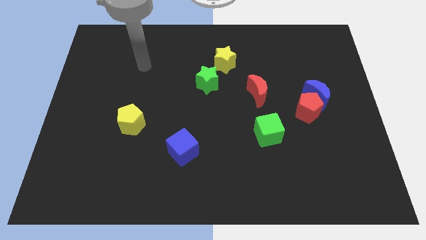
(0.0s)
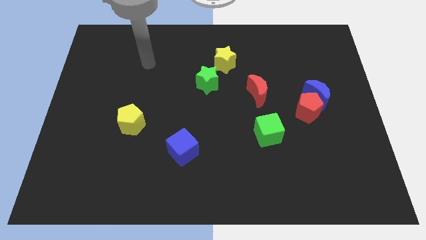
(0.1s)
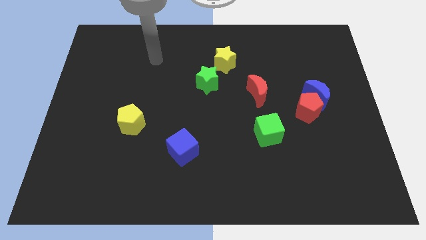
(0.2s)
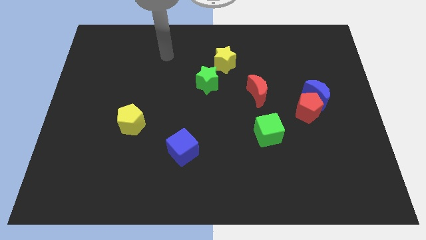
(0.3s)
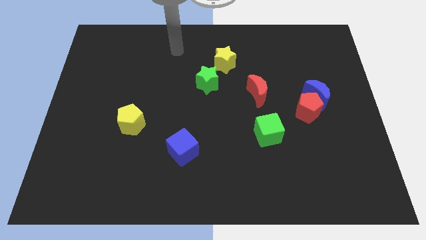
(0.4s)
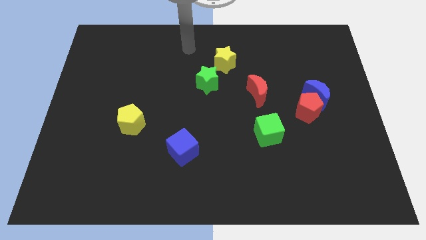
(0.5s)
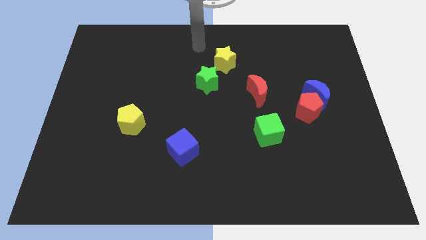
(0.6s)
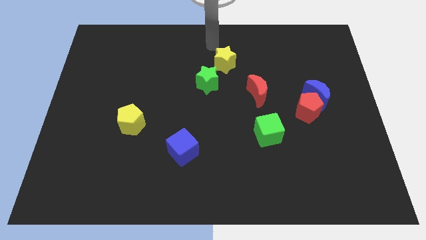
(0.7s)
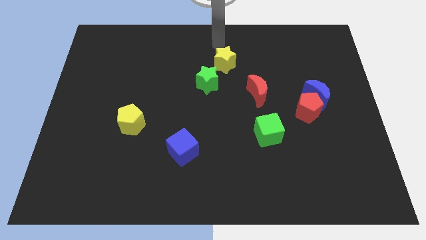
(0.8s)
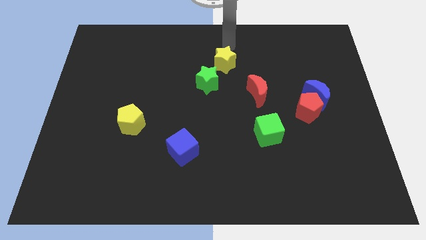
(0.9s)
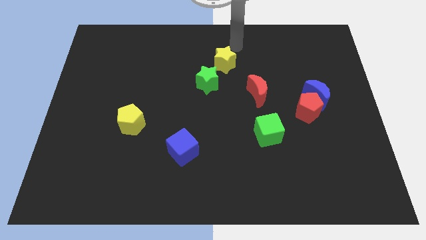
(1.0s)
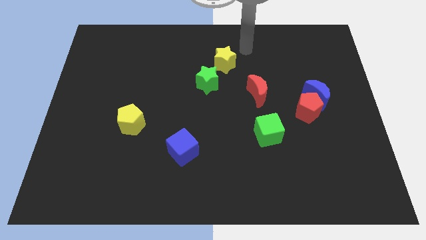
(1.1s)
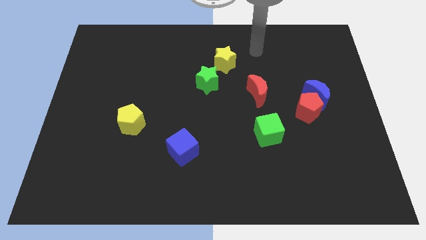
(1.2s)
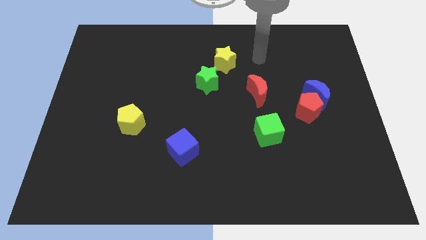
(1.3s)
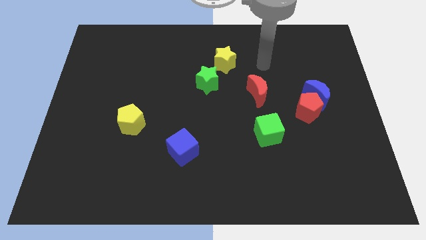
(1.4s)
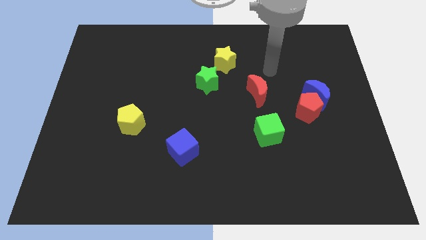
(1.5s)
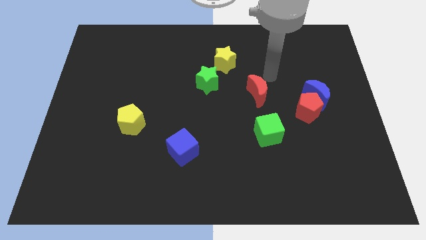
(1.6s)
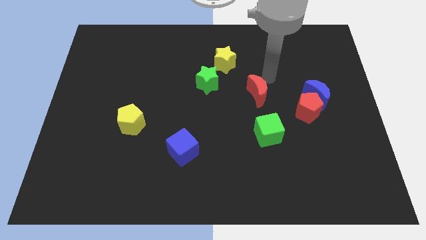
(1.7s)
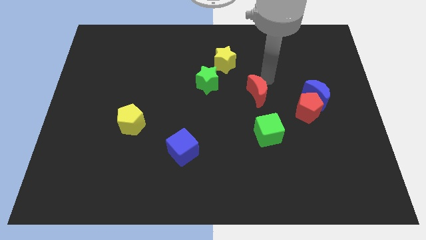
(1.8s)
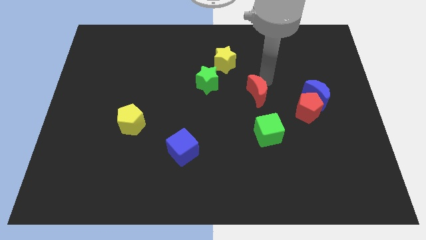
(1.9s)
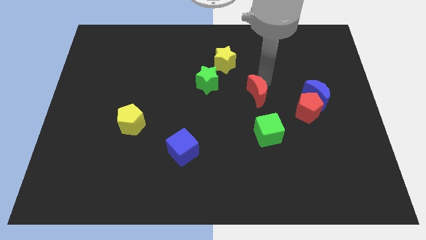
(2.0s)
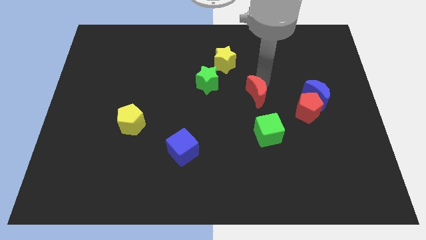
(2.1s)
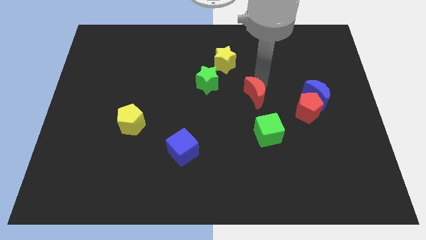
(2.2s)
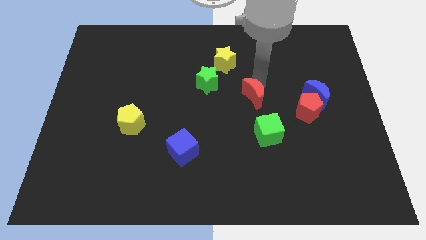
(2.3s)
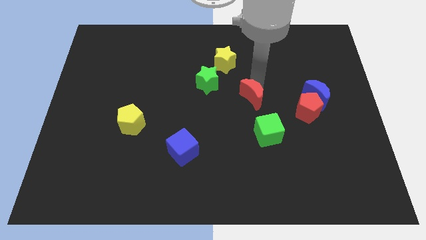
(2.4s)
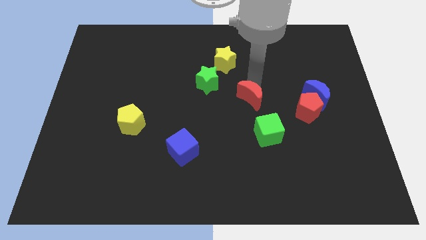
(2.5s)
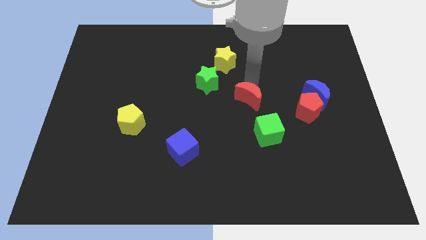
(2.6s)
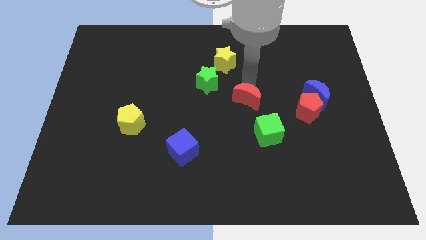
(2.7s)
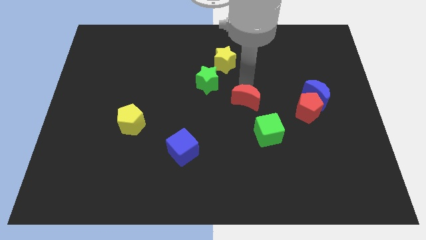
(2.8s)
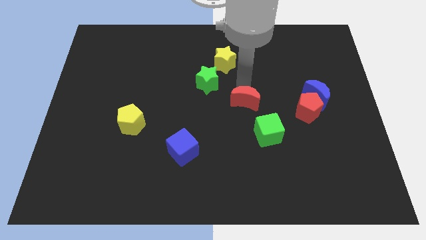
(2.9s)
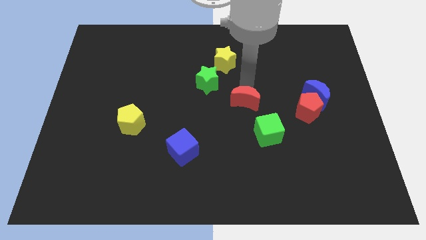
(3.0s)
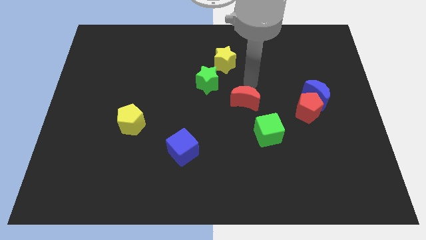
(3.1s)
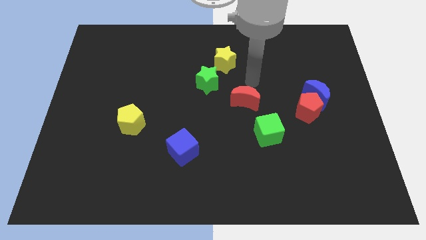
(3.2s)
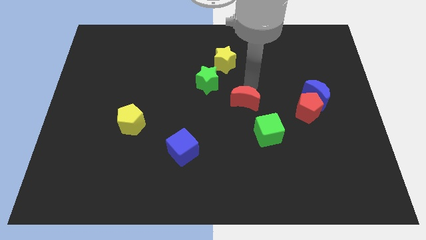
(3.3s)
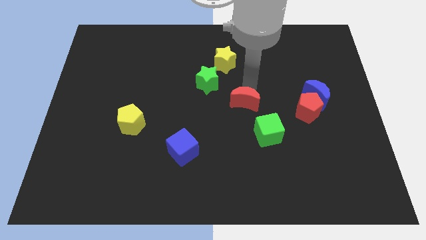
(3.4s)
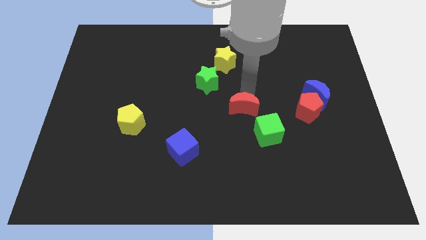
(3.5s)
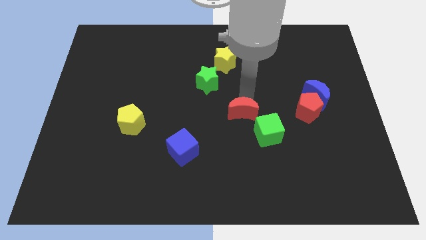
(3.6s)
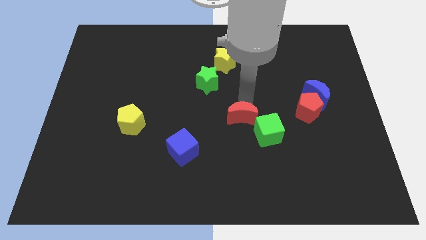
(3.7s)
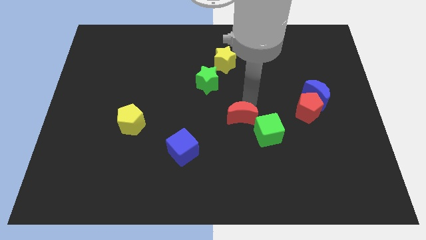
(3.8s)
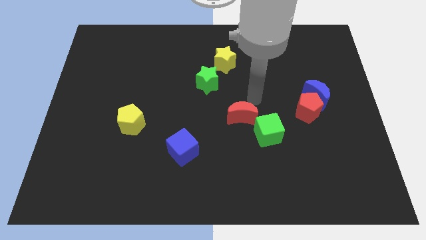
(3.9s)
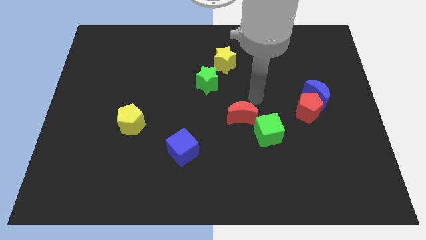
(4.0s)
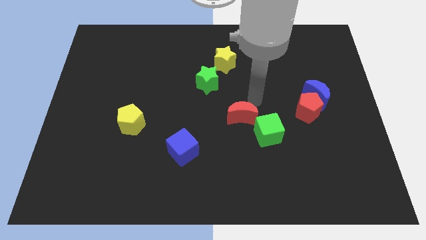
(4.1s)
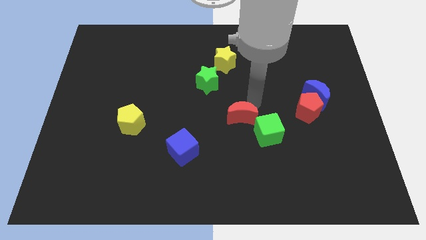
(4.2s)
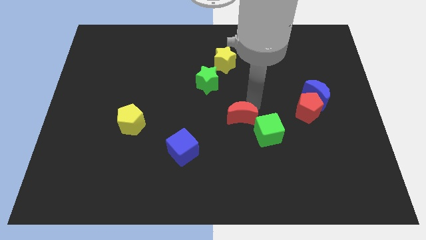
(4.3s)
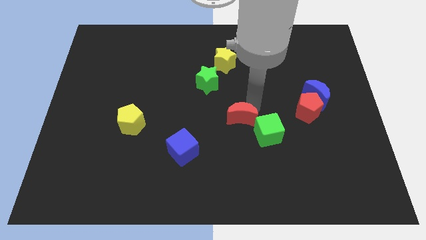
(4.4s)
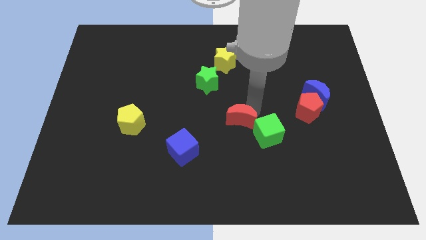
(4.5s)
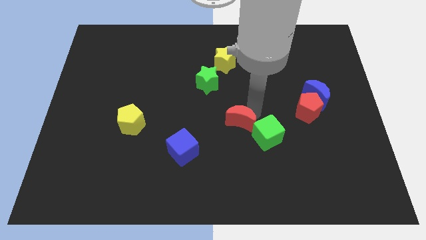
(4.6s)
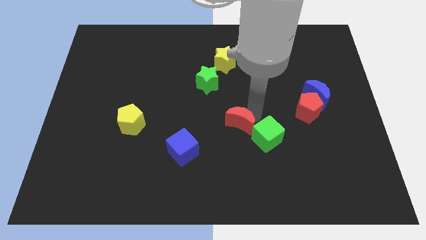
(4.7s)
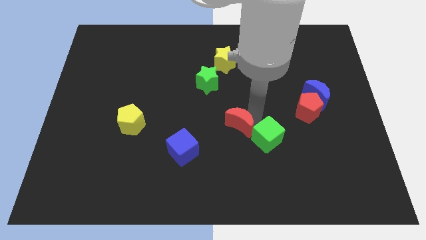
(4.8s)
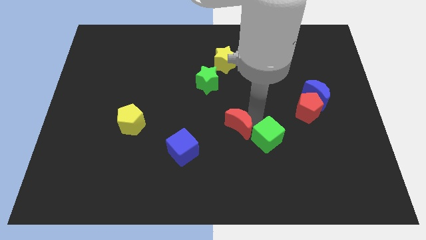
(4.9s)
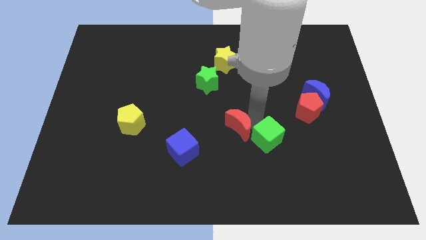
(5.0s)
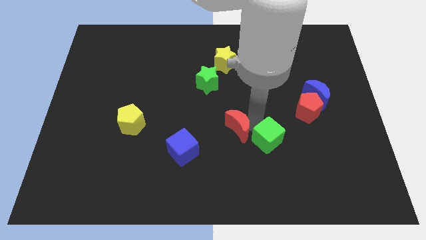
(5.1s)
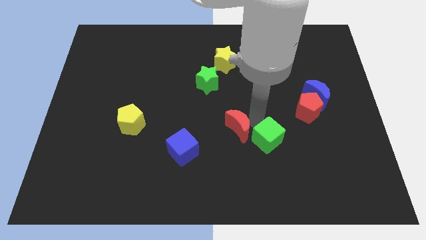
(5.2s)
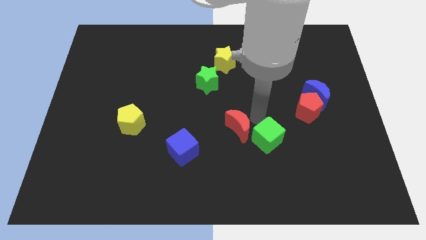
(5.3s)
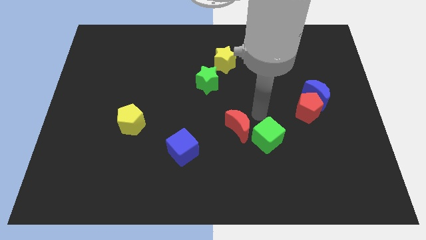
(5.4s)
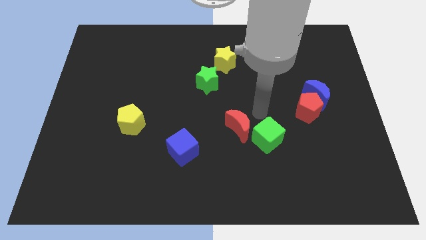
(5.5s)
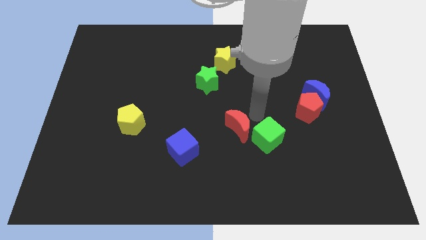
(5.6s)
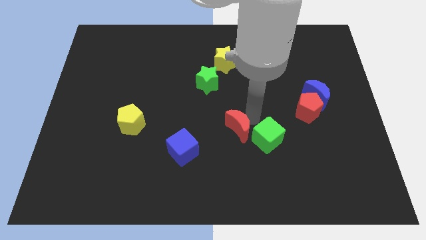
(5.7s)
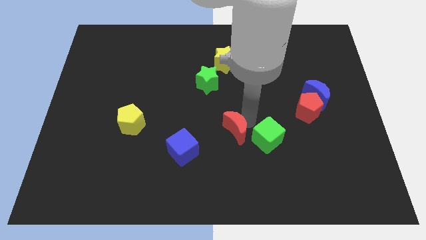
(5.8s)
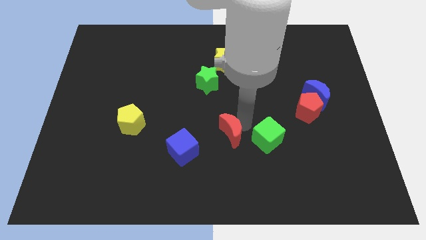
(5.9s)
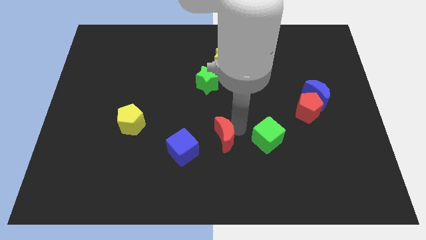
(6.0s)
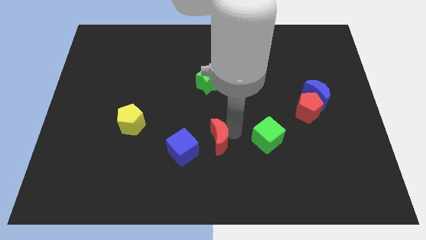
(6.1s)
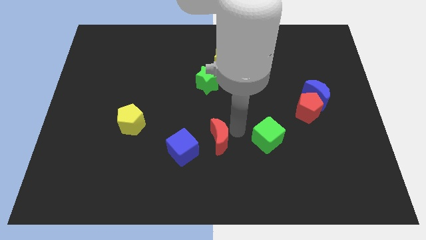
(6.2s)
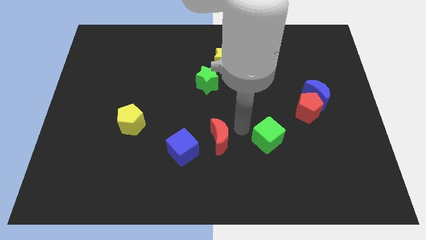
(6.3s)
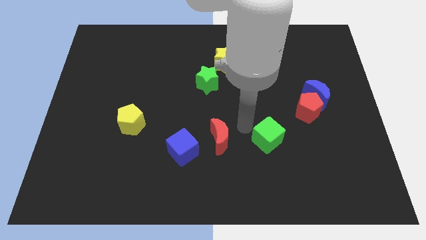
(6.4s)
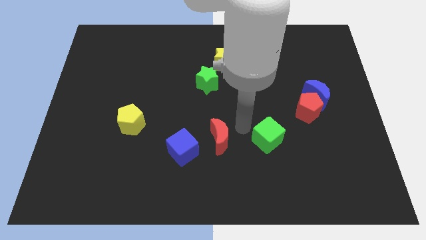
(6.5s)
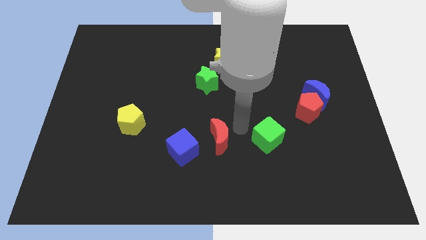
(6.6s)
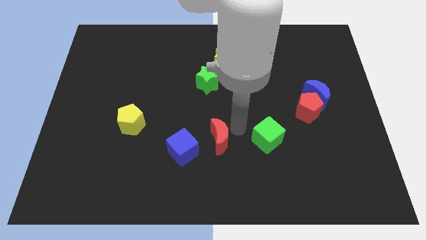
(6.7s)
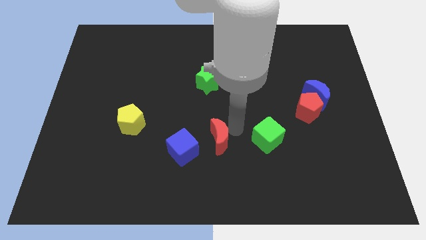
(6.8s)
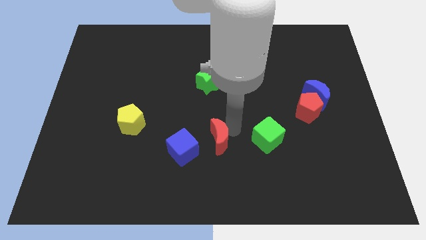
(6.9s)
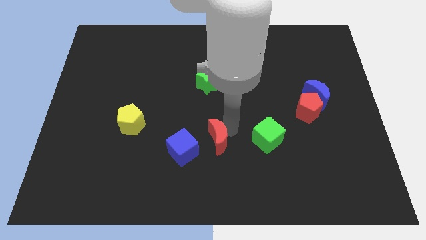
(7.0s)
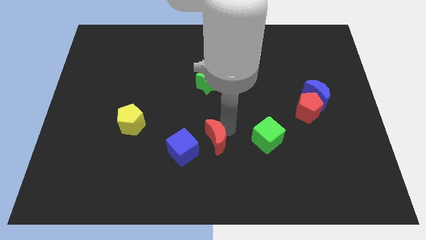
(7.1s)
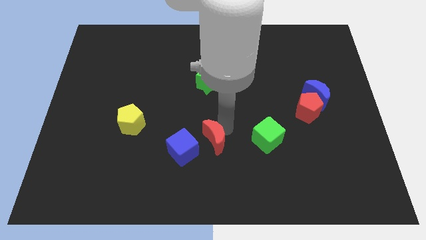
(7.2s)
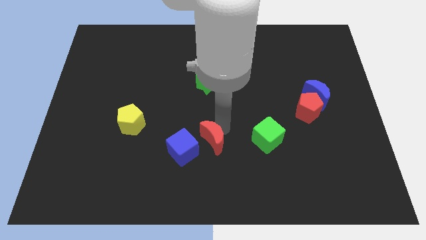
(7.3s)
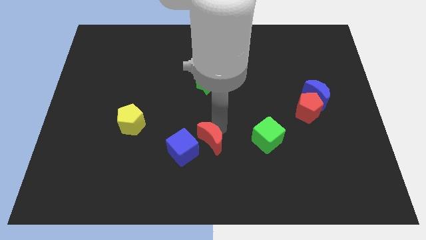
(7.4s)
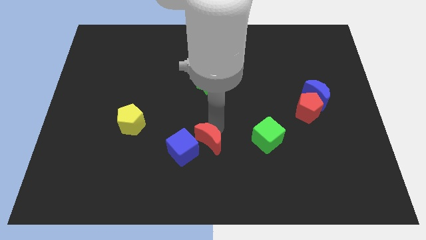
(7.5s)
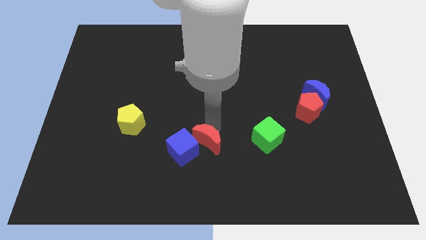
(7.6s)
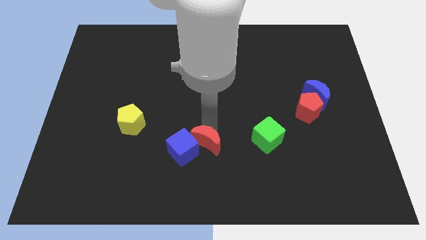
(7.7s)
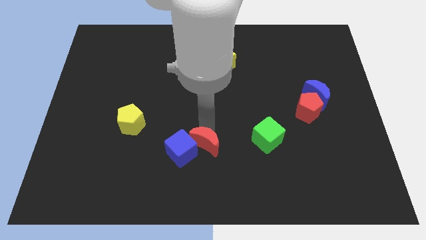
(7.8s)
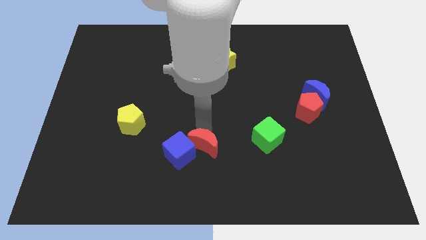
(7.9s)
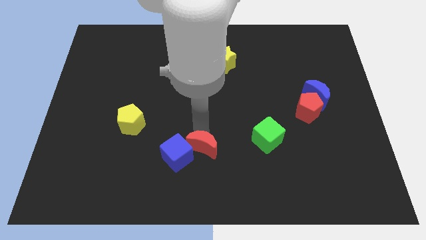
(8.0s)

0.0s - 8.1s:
push the red moon diagonally downwards and to the left

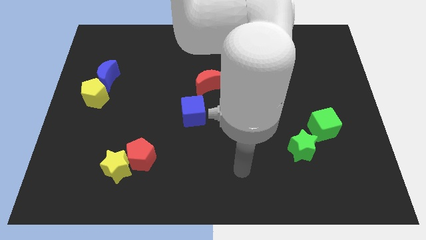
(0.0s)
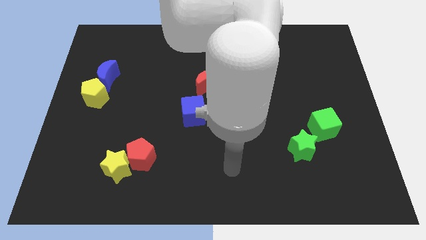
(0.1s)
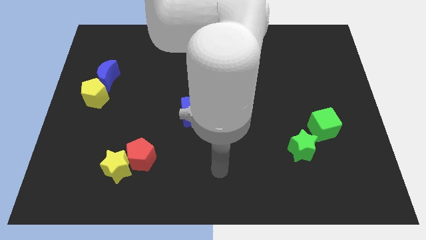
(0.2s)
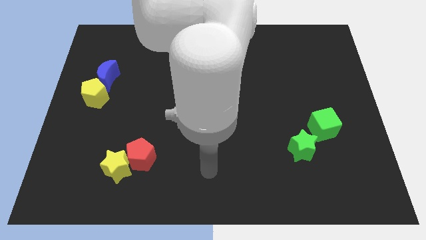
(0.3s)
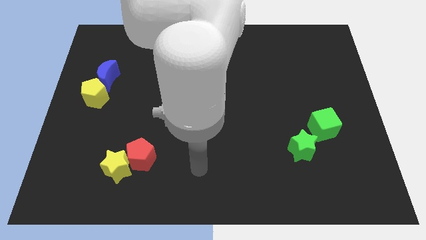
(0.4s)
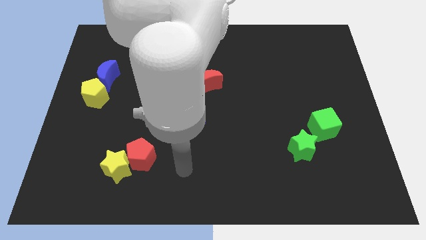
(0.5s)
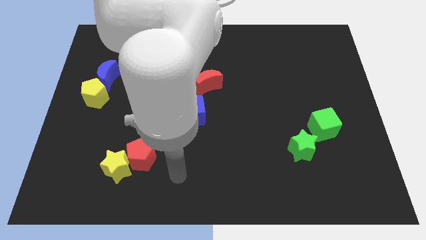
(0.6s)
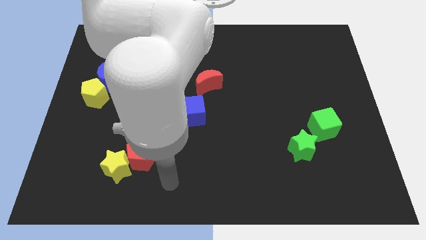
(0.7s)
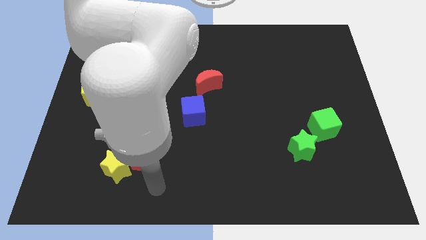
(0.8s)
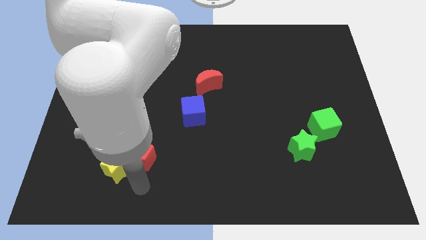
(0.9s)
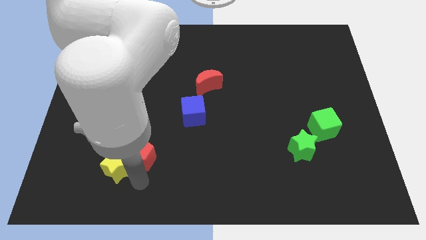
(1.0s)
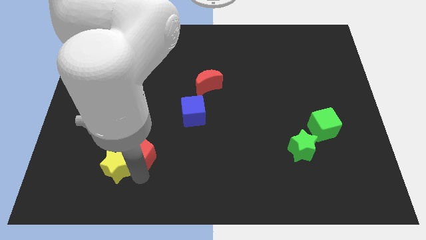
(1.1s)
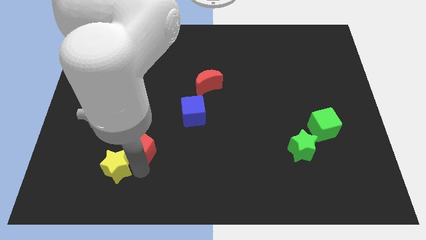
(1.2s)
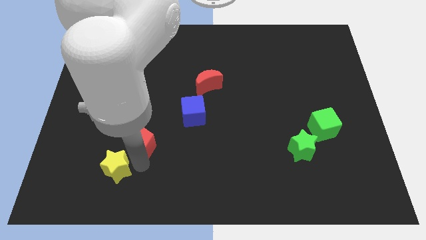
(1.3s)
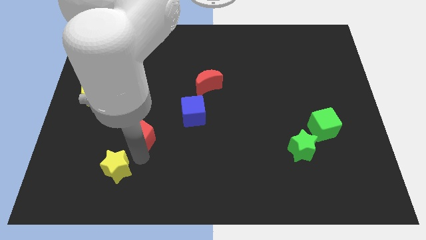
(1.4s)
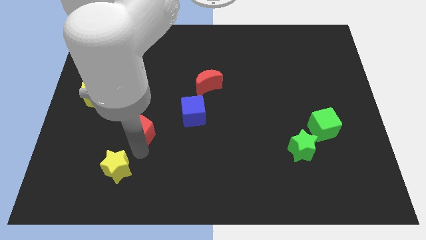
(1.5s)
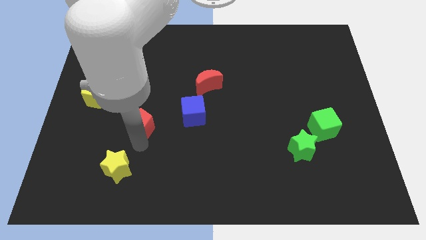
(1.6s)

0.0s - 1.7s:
slide the red pentagon somewhat upwards
